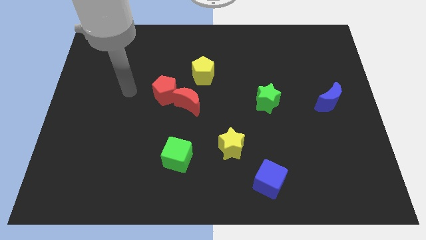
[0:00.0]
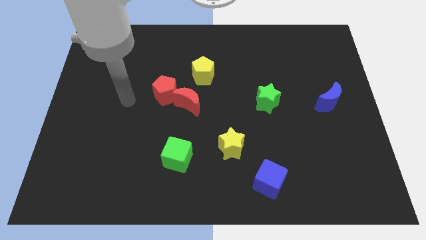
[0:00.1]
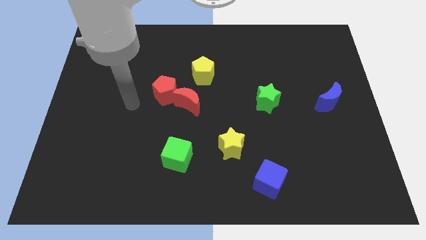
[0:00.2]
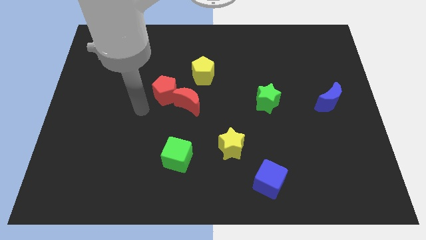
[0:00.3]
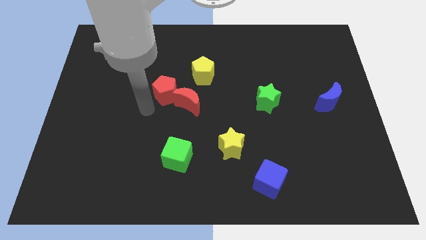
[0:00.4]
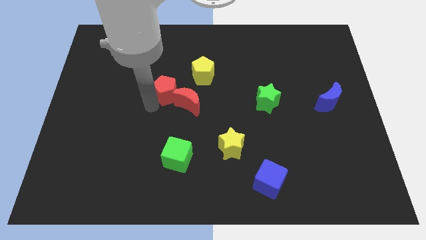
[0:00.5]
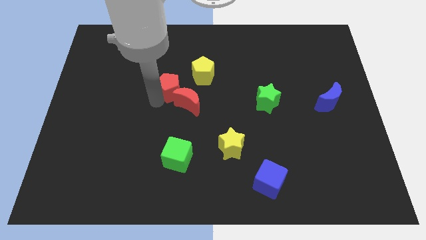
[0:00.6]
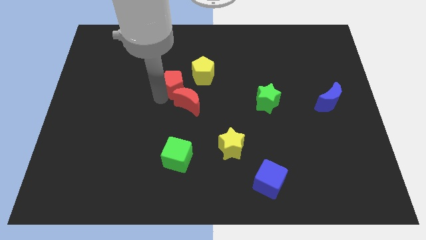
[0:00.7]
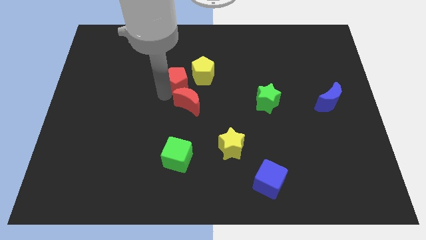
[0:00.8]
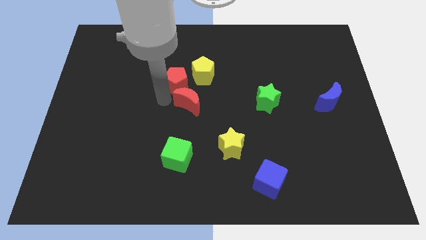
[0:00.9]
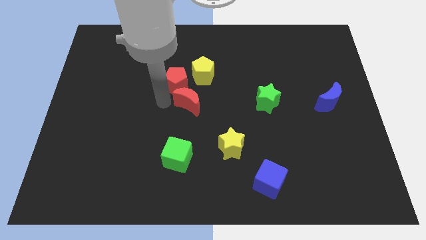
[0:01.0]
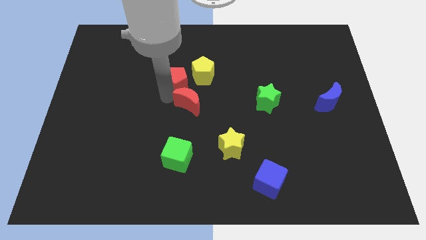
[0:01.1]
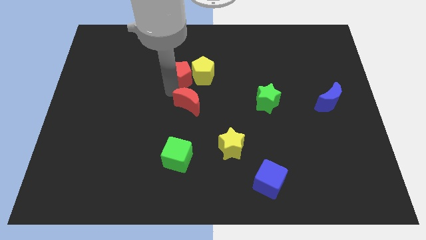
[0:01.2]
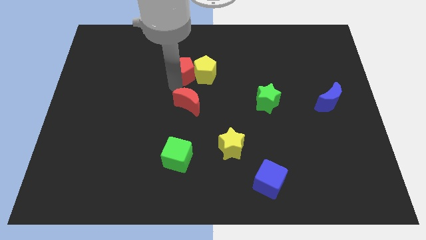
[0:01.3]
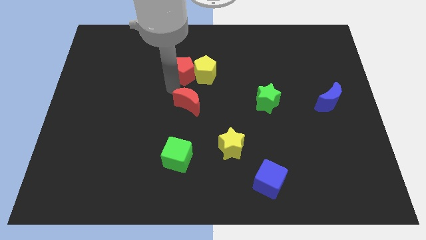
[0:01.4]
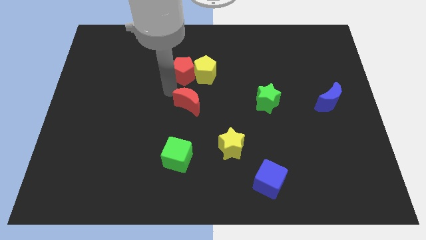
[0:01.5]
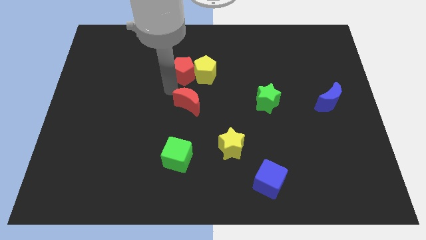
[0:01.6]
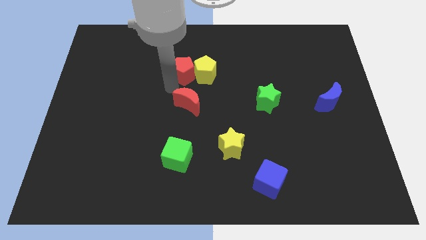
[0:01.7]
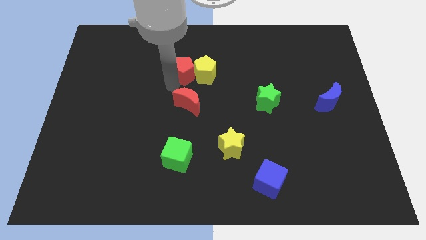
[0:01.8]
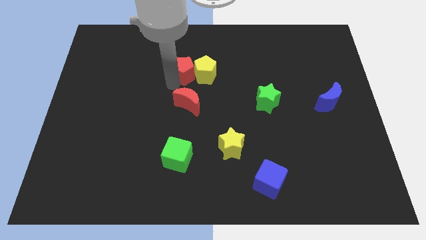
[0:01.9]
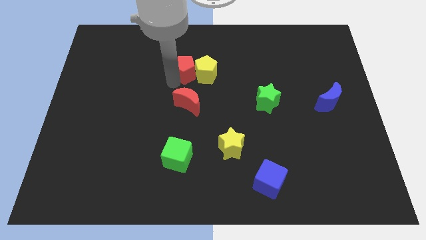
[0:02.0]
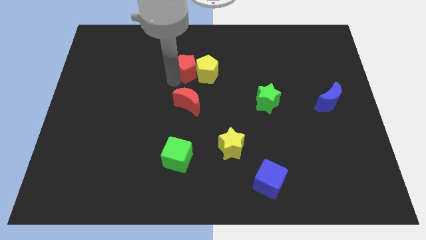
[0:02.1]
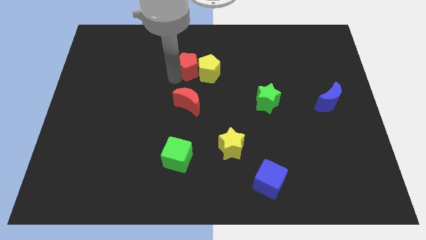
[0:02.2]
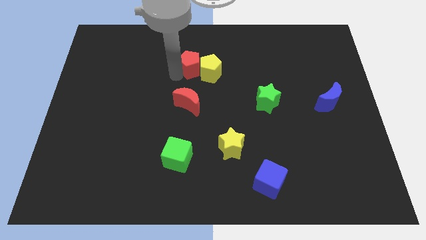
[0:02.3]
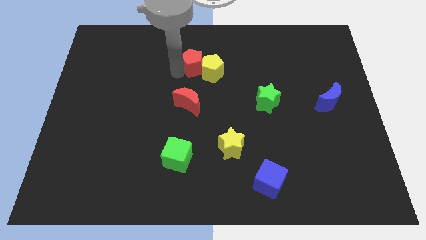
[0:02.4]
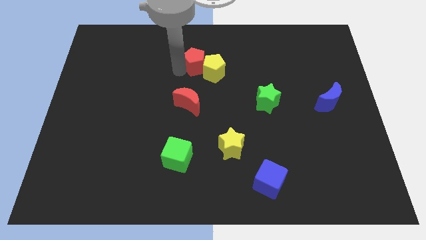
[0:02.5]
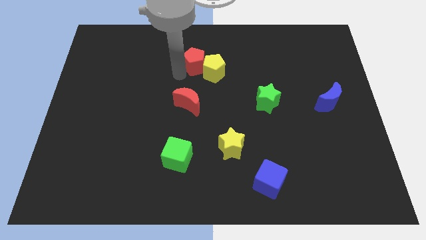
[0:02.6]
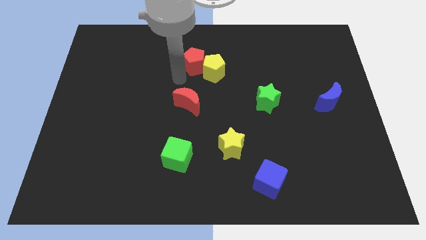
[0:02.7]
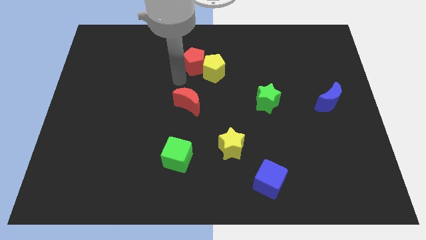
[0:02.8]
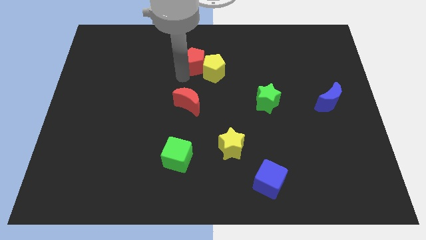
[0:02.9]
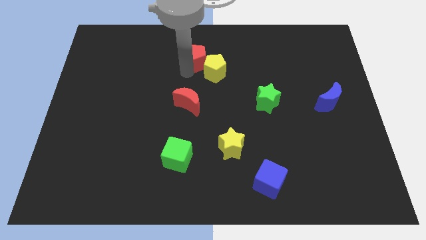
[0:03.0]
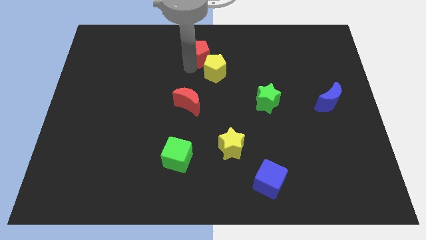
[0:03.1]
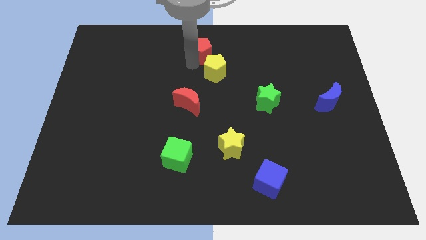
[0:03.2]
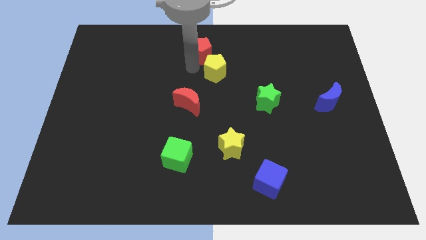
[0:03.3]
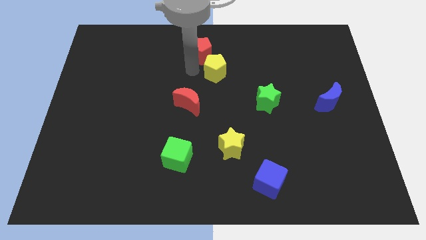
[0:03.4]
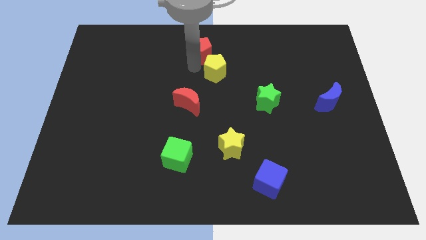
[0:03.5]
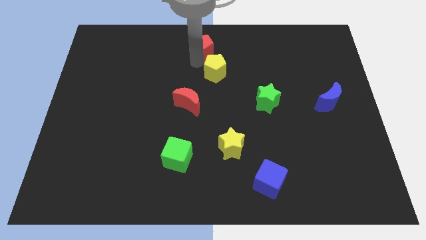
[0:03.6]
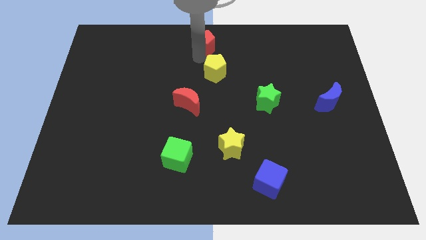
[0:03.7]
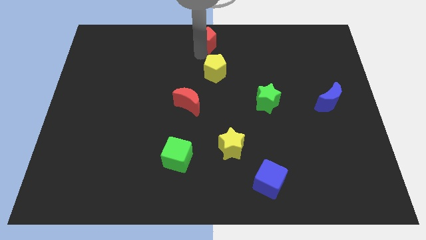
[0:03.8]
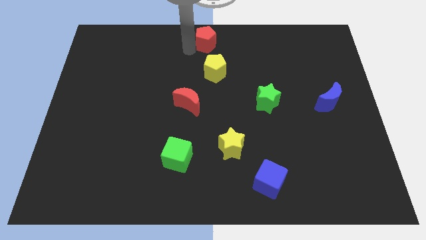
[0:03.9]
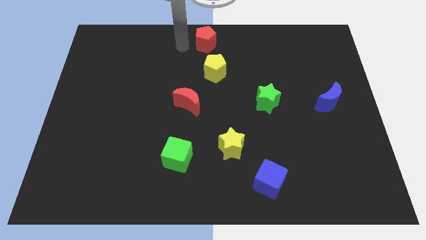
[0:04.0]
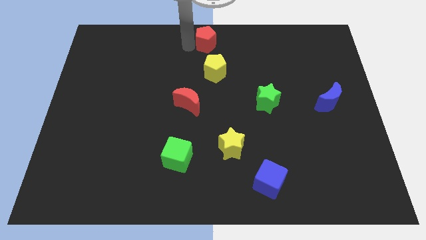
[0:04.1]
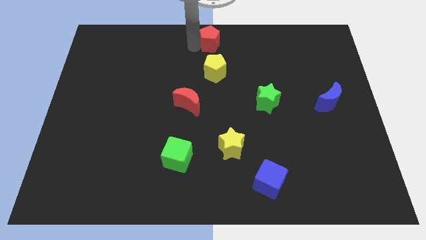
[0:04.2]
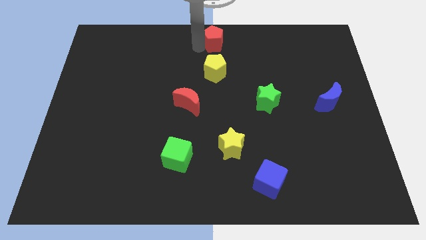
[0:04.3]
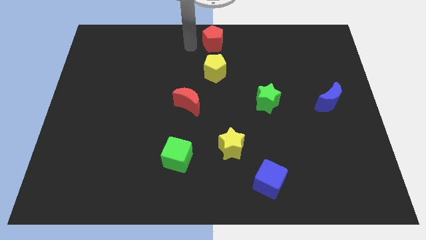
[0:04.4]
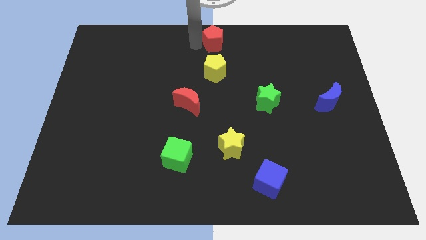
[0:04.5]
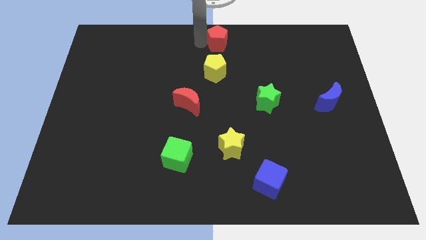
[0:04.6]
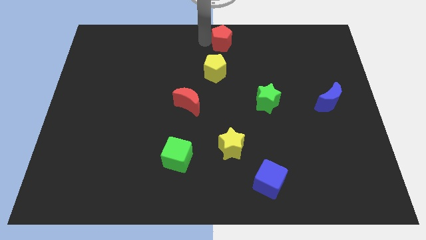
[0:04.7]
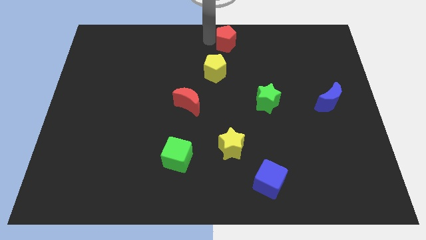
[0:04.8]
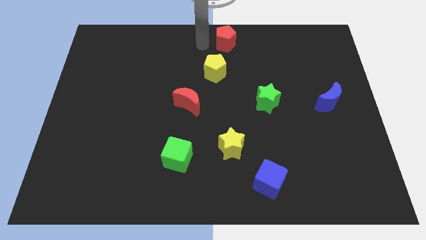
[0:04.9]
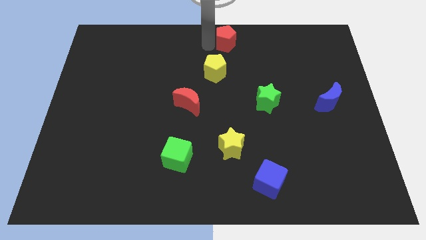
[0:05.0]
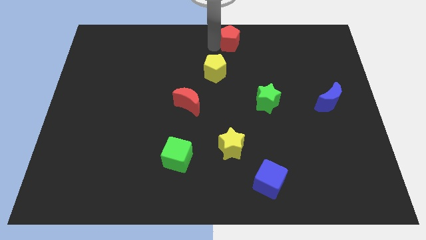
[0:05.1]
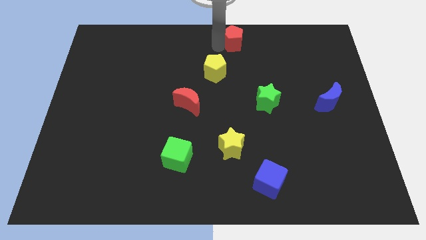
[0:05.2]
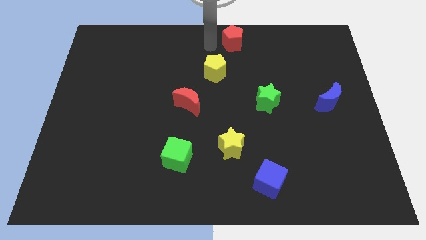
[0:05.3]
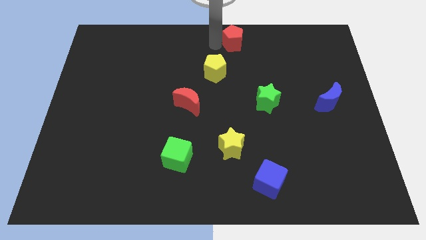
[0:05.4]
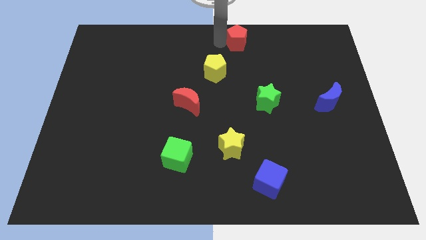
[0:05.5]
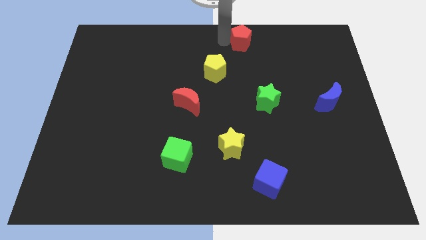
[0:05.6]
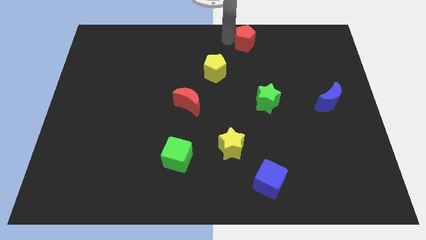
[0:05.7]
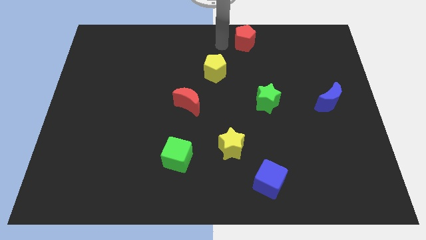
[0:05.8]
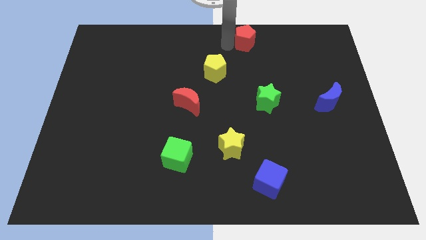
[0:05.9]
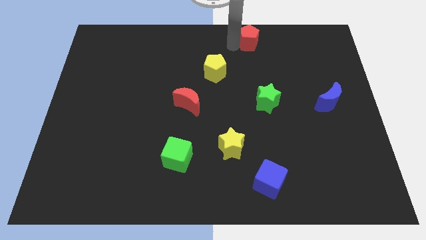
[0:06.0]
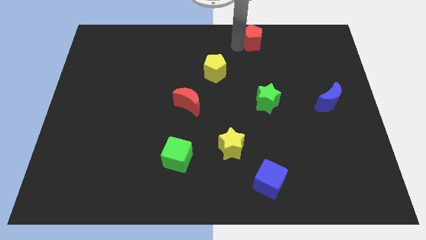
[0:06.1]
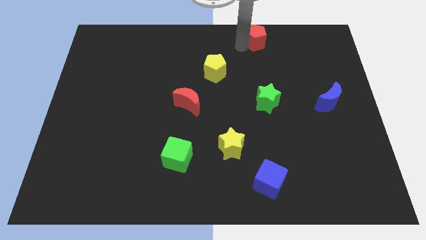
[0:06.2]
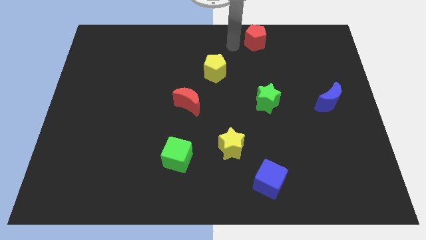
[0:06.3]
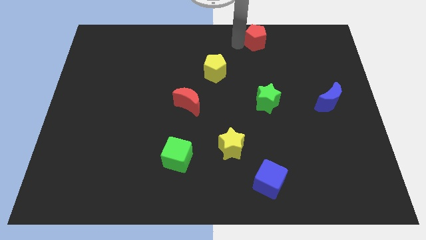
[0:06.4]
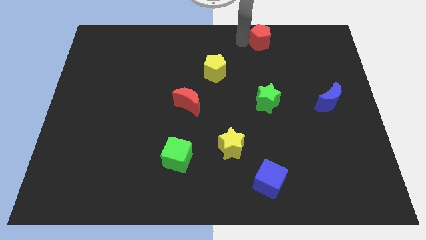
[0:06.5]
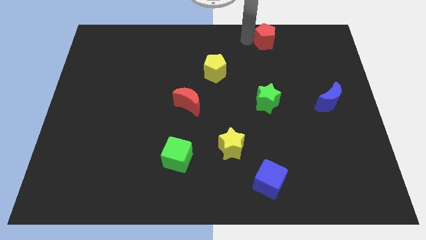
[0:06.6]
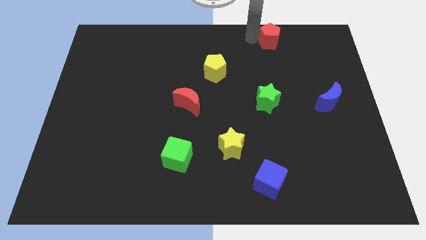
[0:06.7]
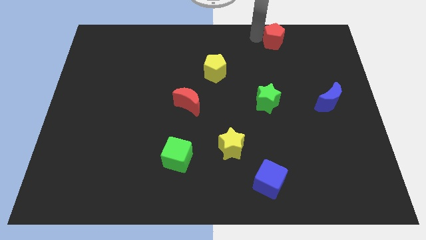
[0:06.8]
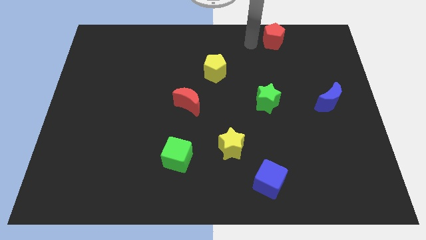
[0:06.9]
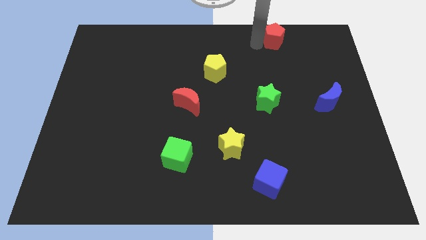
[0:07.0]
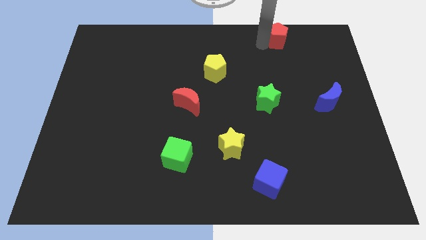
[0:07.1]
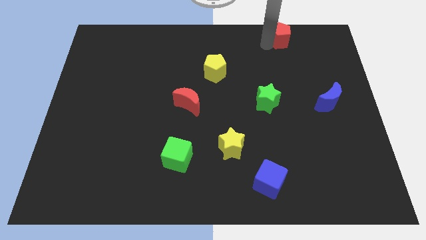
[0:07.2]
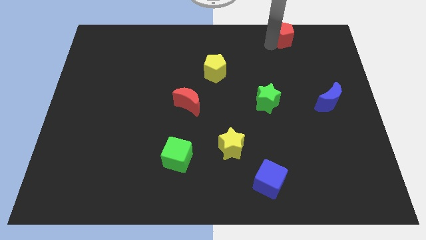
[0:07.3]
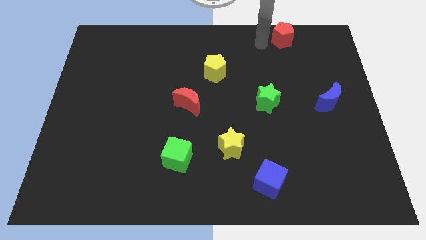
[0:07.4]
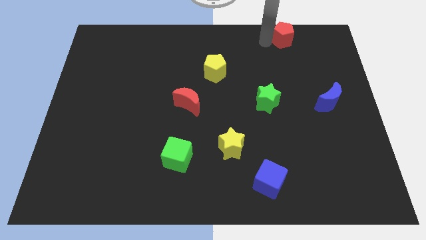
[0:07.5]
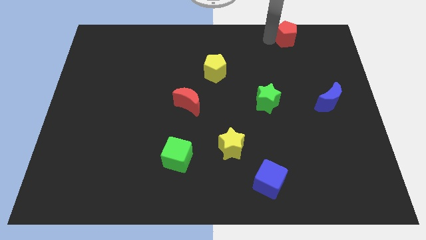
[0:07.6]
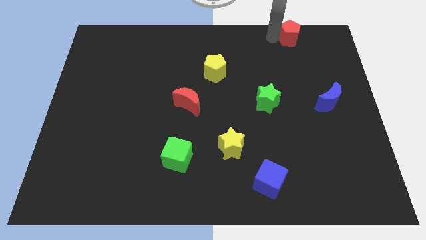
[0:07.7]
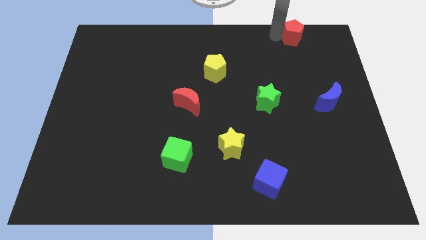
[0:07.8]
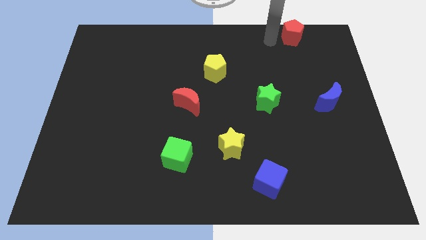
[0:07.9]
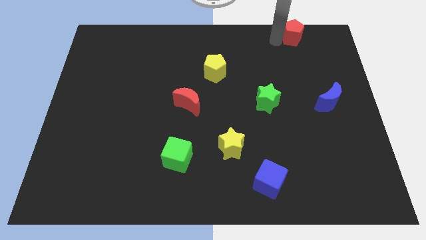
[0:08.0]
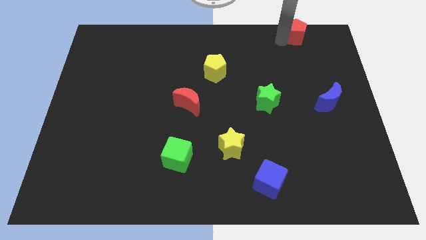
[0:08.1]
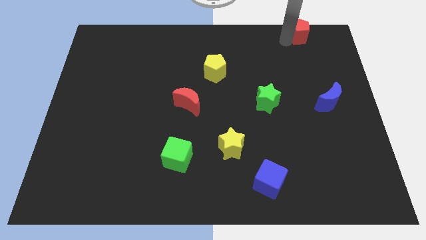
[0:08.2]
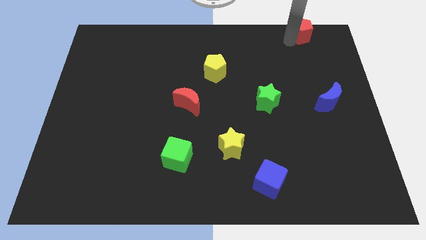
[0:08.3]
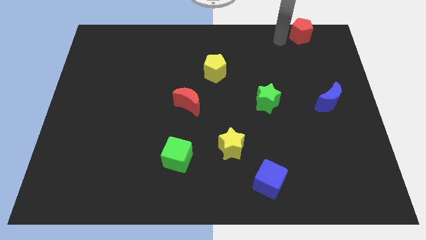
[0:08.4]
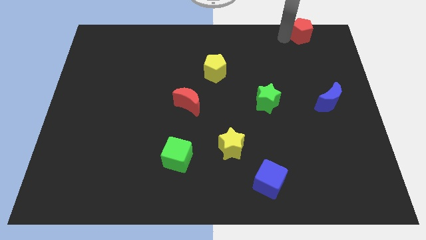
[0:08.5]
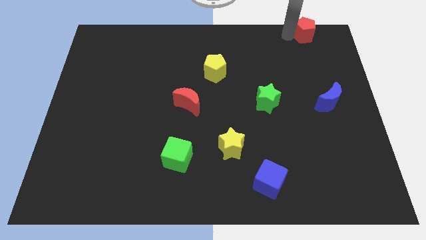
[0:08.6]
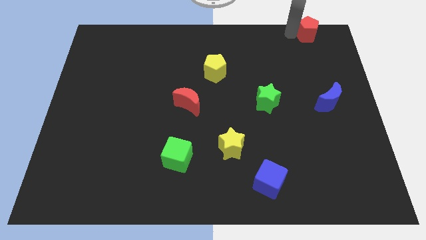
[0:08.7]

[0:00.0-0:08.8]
move the red pentagon to the top right corner
